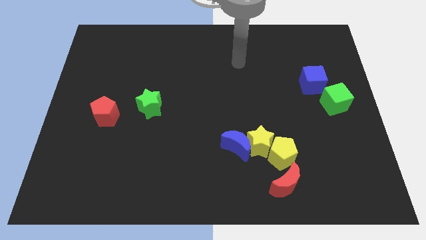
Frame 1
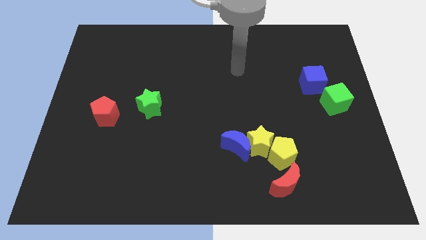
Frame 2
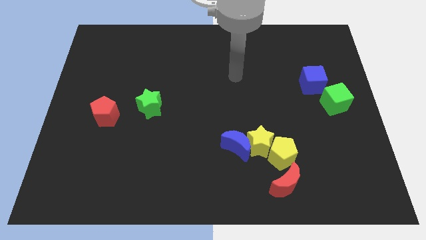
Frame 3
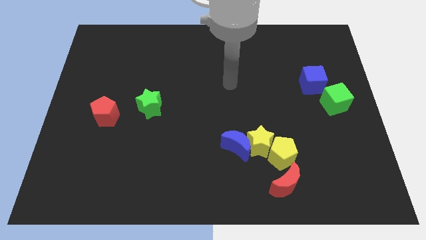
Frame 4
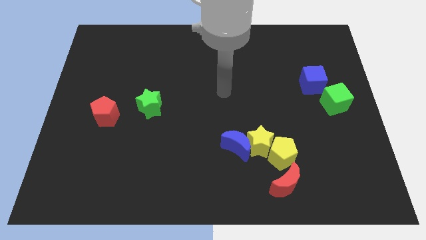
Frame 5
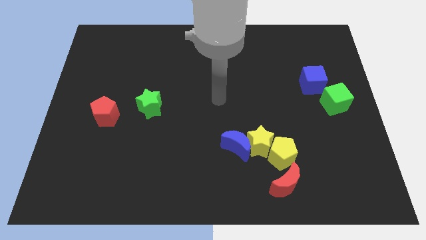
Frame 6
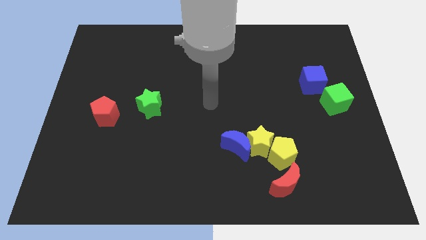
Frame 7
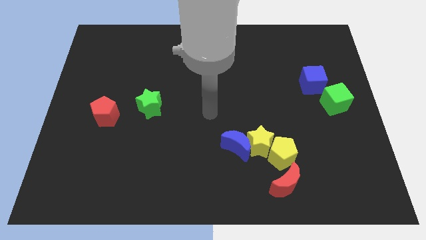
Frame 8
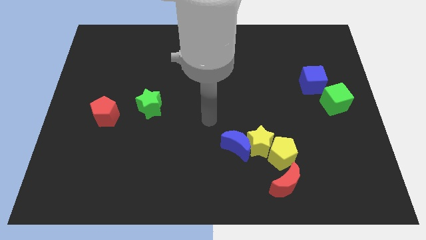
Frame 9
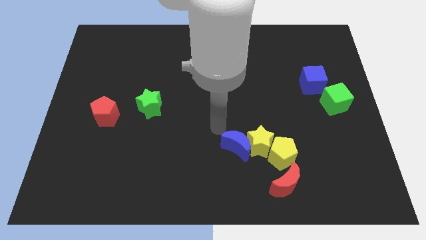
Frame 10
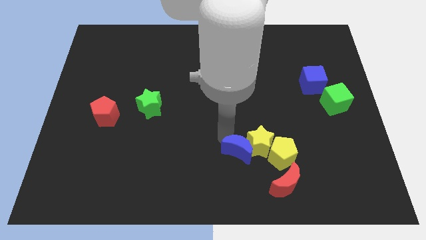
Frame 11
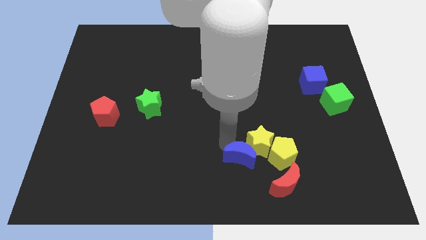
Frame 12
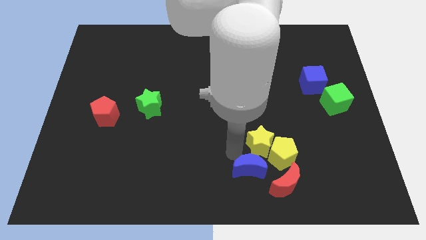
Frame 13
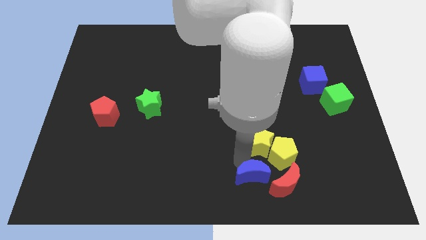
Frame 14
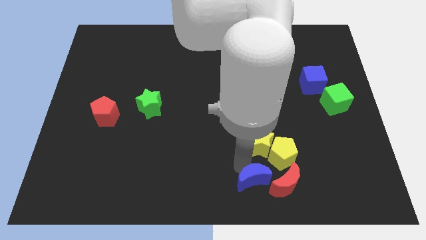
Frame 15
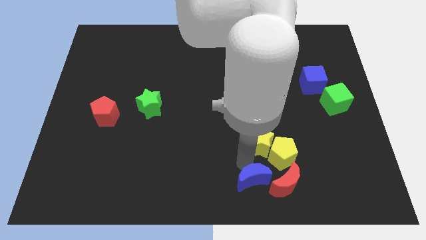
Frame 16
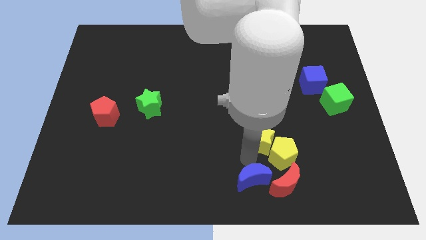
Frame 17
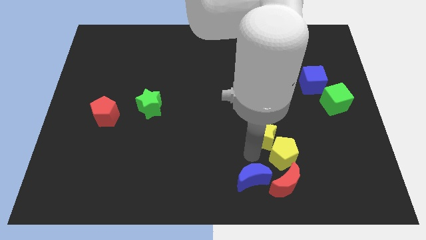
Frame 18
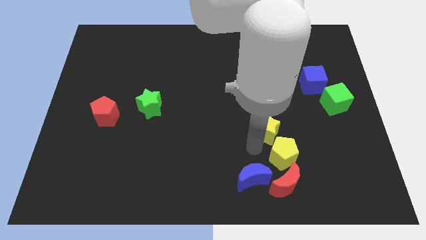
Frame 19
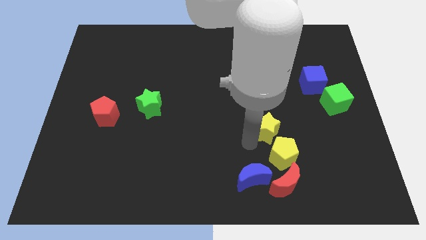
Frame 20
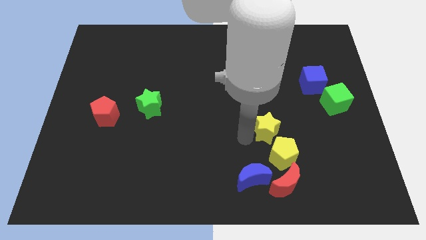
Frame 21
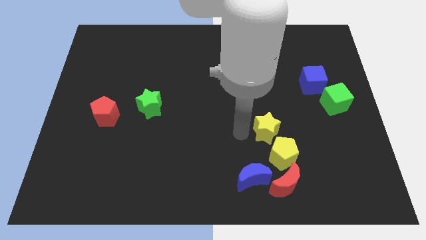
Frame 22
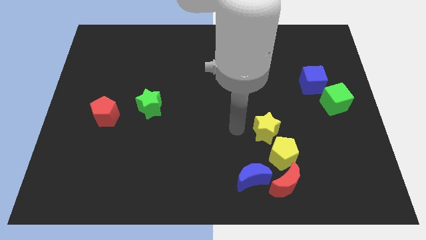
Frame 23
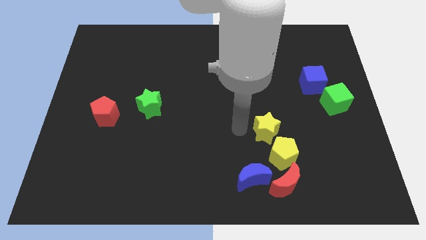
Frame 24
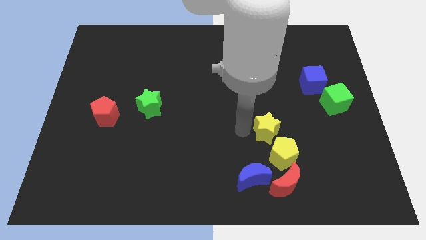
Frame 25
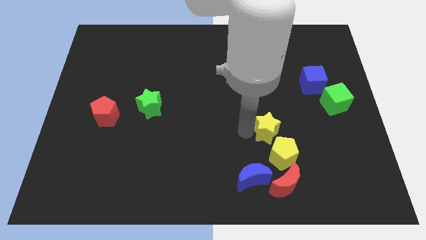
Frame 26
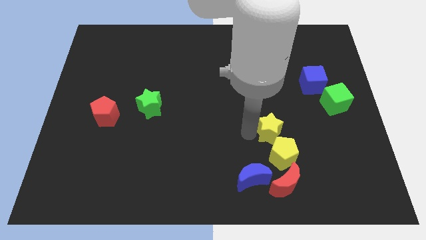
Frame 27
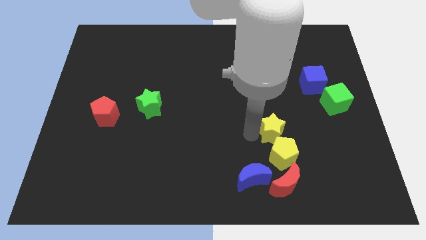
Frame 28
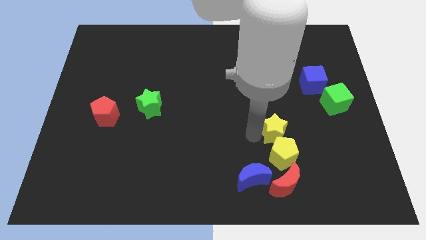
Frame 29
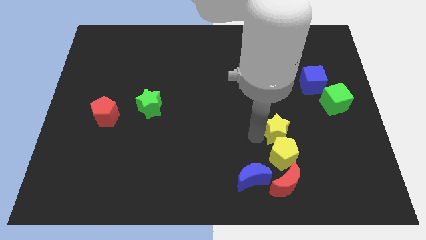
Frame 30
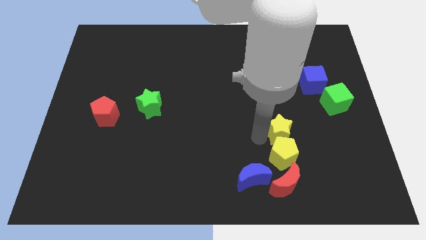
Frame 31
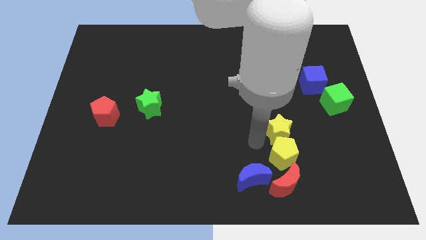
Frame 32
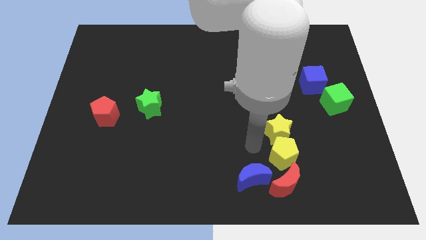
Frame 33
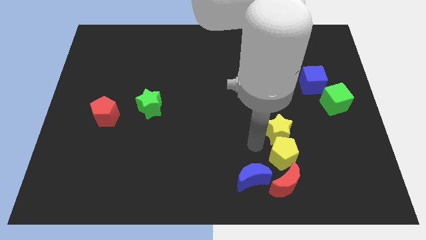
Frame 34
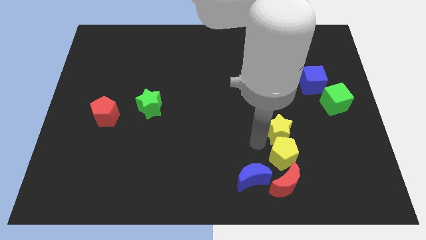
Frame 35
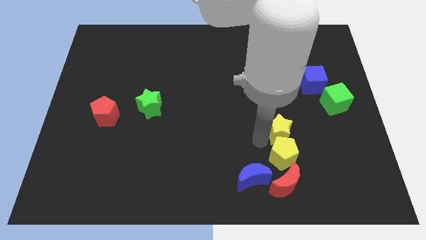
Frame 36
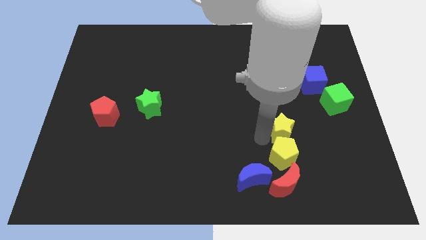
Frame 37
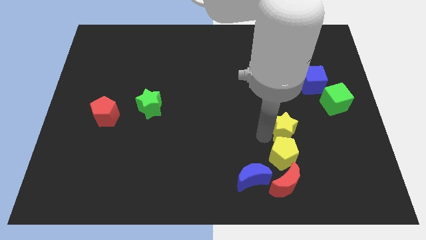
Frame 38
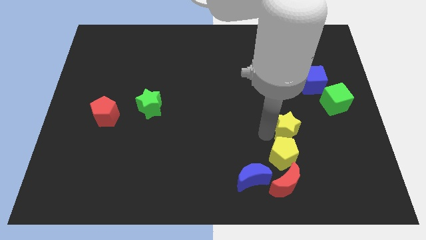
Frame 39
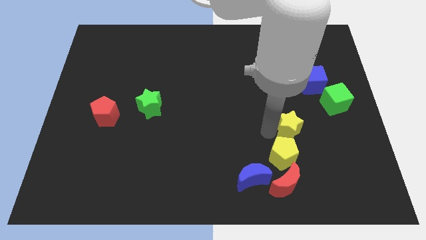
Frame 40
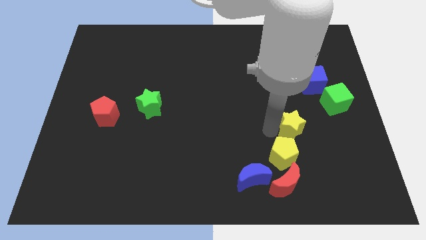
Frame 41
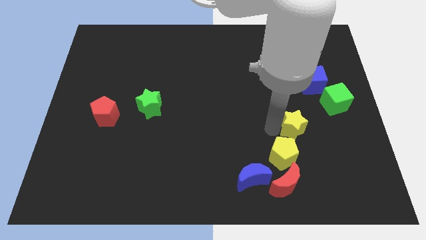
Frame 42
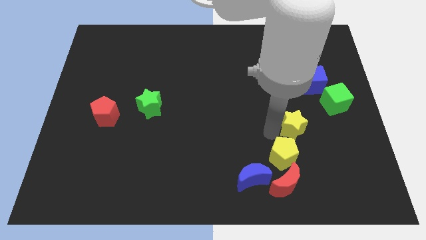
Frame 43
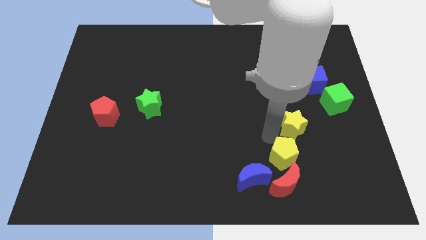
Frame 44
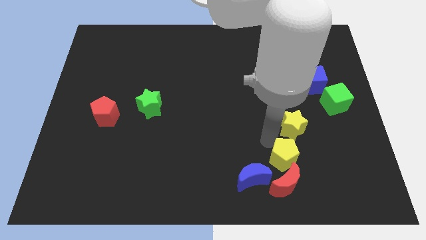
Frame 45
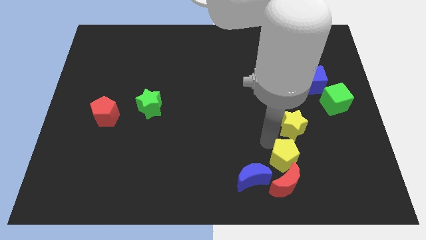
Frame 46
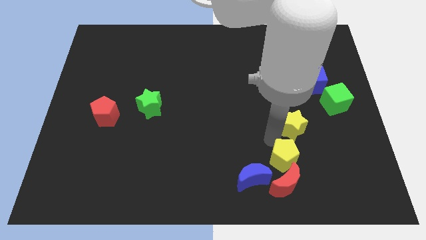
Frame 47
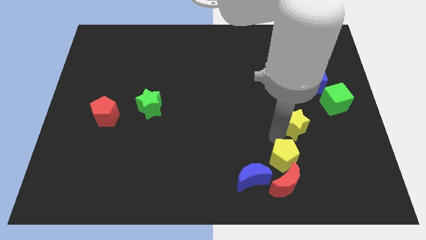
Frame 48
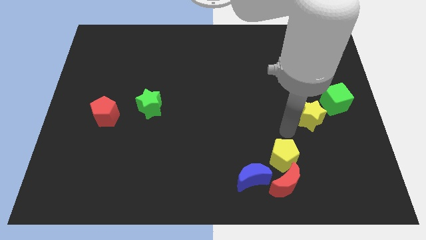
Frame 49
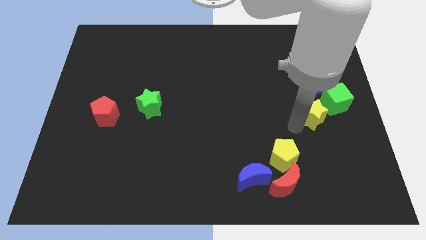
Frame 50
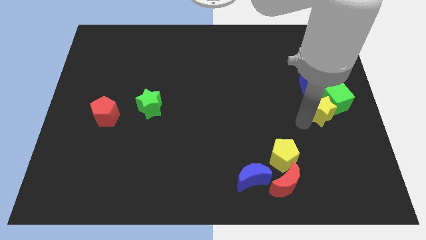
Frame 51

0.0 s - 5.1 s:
slide the yellow star towards the green cube
